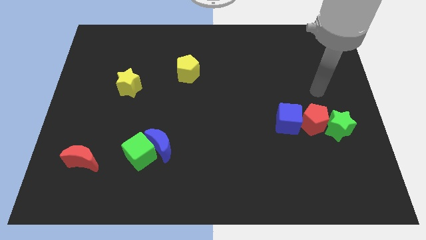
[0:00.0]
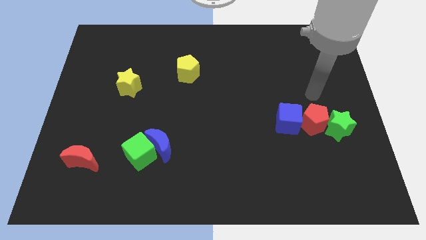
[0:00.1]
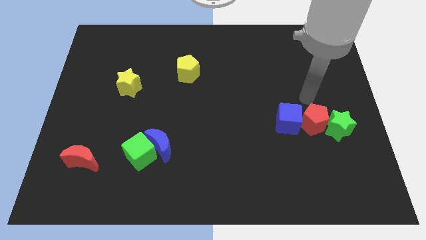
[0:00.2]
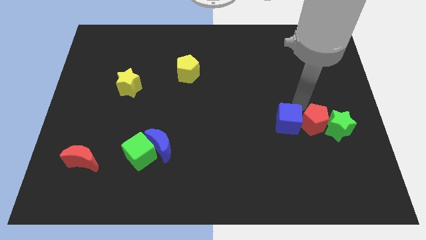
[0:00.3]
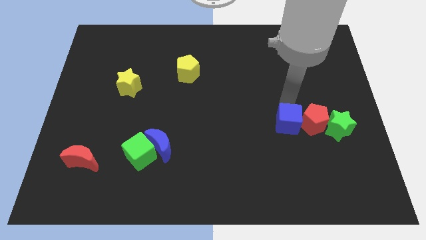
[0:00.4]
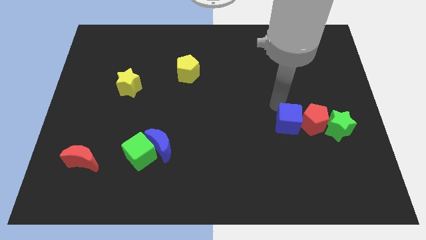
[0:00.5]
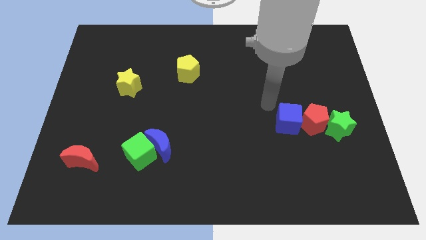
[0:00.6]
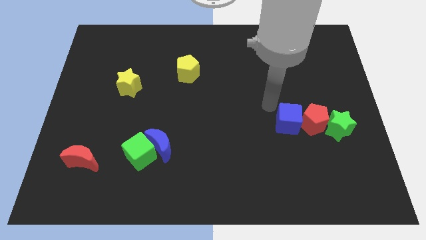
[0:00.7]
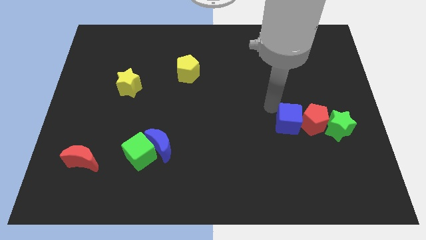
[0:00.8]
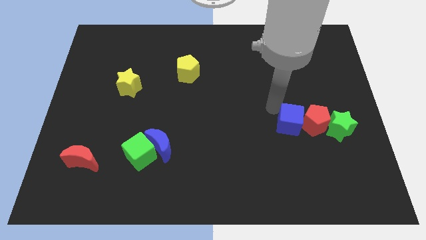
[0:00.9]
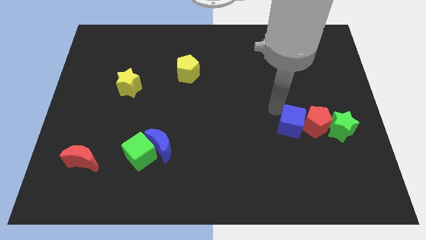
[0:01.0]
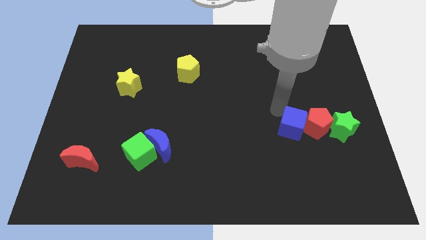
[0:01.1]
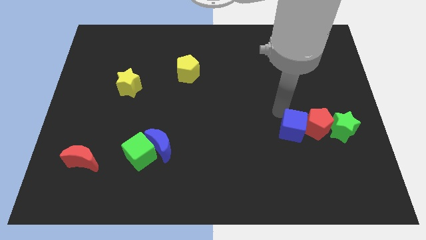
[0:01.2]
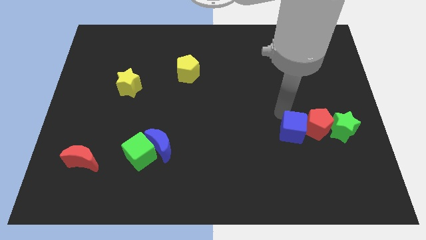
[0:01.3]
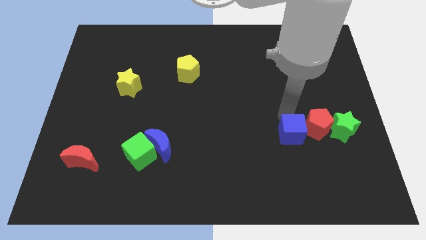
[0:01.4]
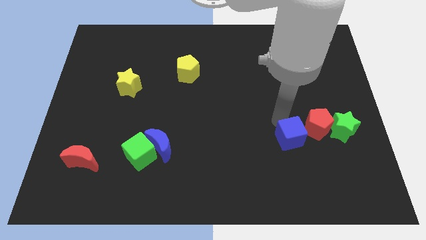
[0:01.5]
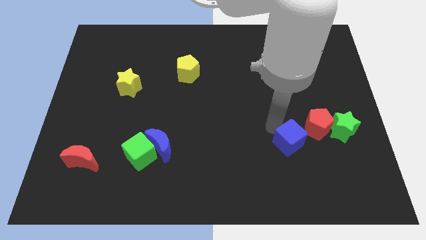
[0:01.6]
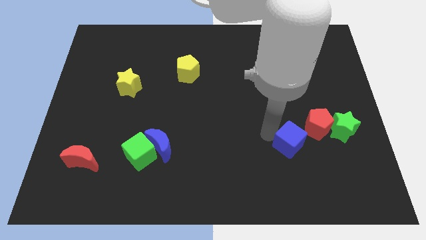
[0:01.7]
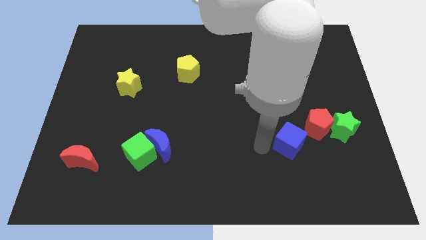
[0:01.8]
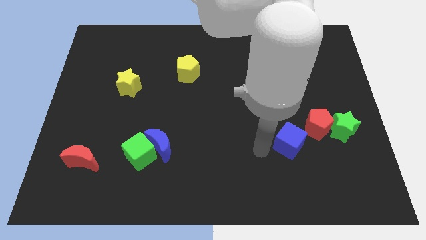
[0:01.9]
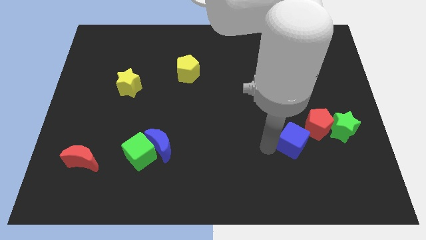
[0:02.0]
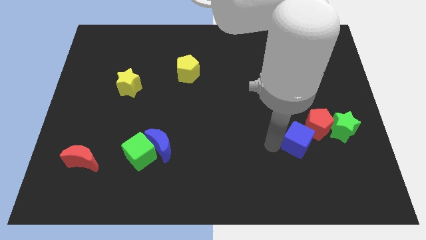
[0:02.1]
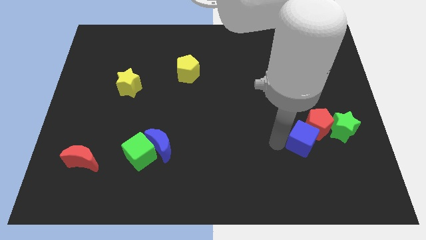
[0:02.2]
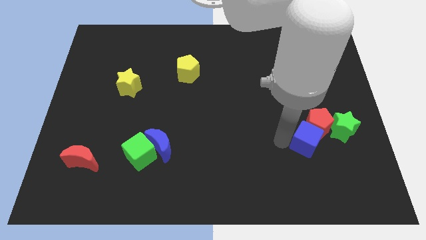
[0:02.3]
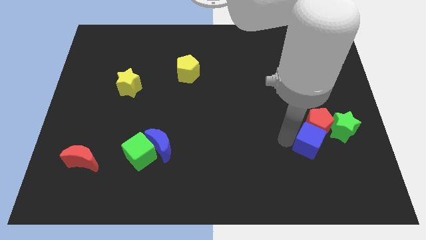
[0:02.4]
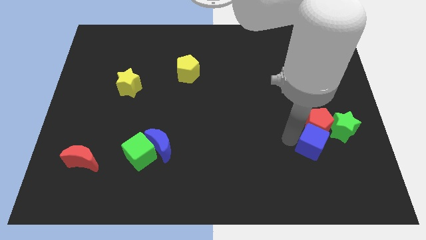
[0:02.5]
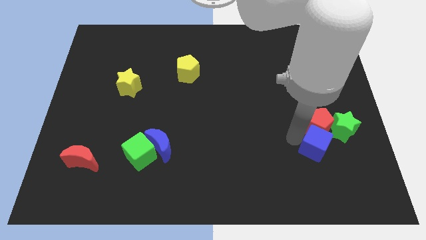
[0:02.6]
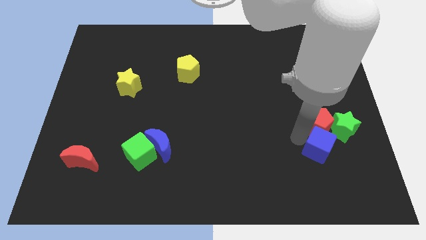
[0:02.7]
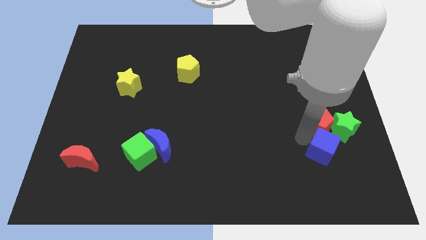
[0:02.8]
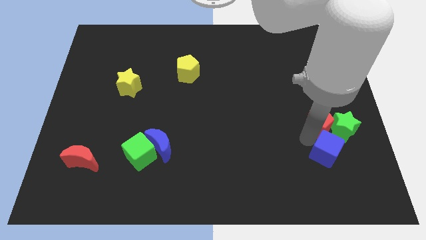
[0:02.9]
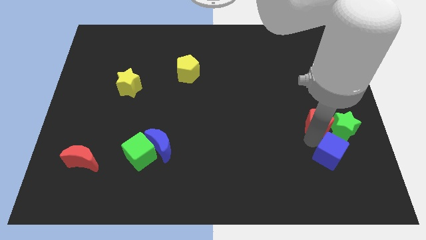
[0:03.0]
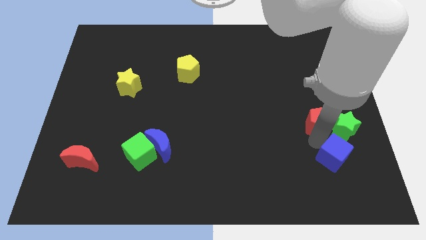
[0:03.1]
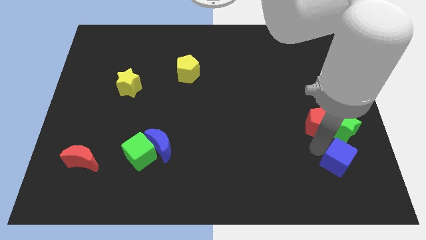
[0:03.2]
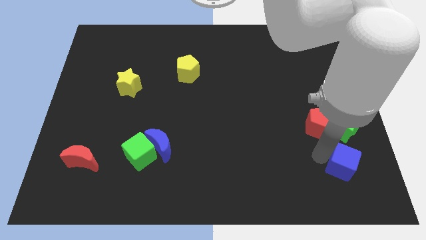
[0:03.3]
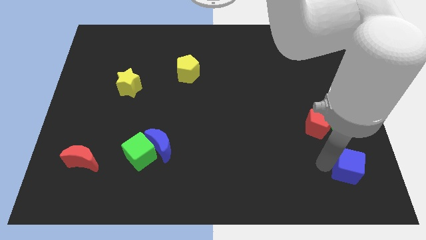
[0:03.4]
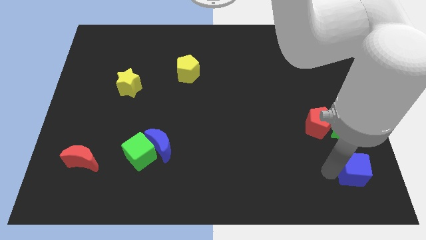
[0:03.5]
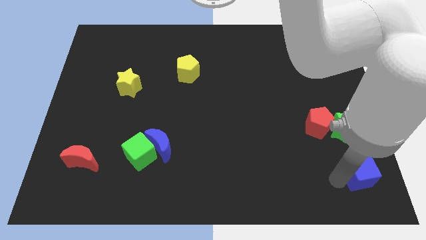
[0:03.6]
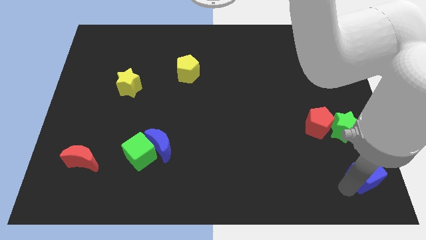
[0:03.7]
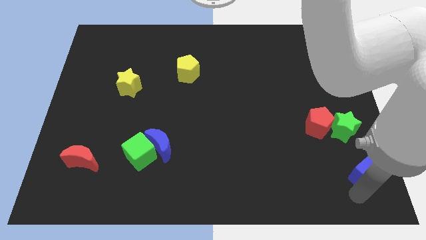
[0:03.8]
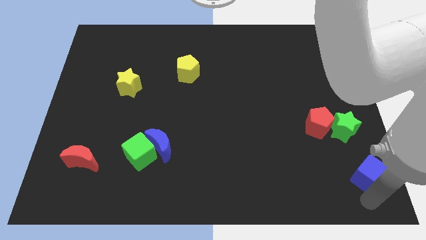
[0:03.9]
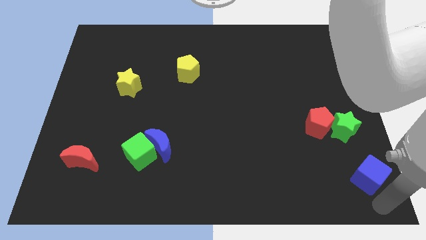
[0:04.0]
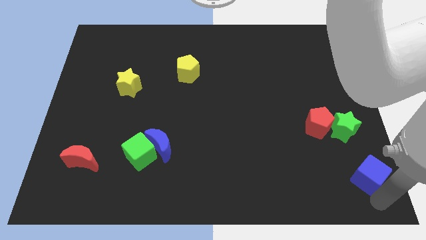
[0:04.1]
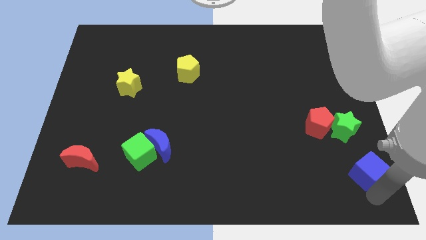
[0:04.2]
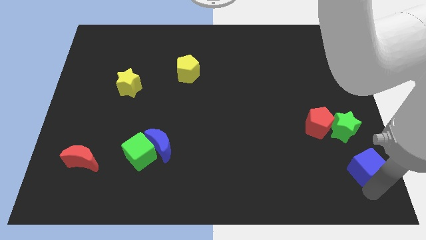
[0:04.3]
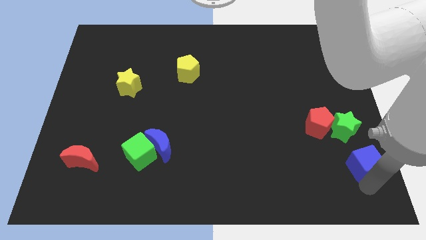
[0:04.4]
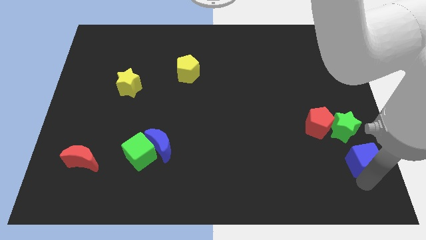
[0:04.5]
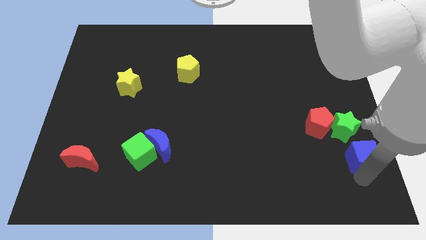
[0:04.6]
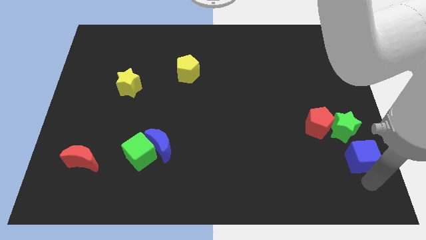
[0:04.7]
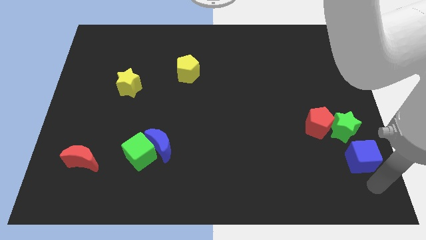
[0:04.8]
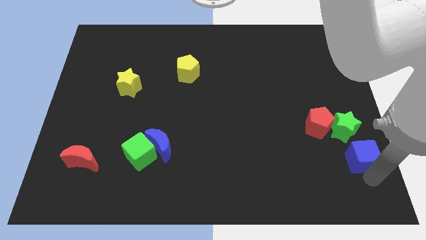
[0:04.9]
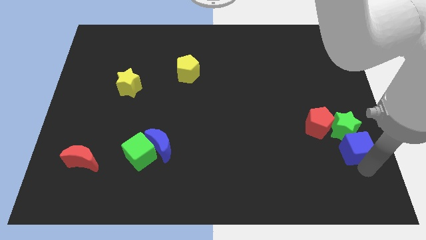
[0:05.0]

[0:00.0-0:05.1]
push the blue cube close to the green star

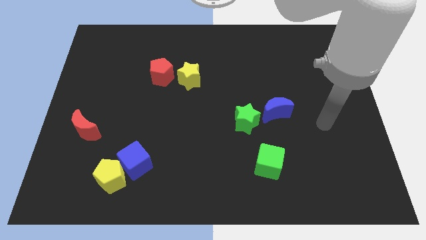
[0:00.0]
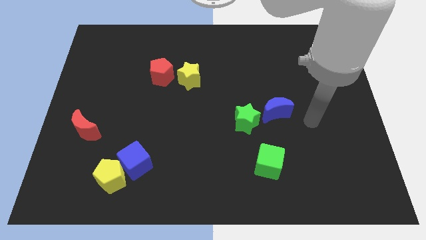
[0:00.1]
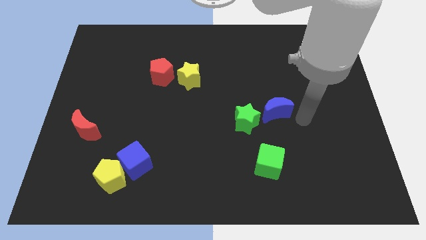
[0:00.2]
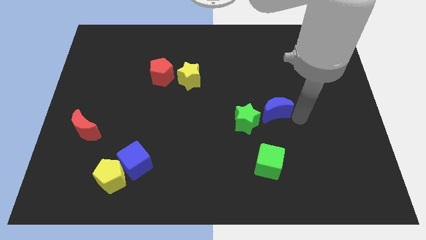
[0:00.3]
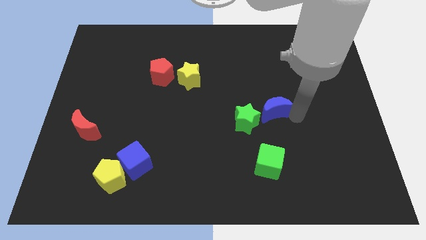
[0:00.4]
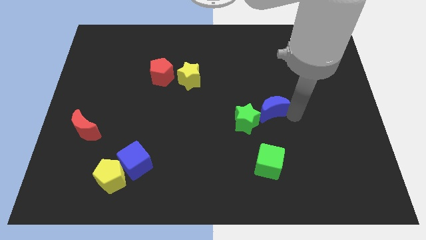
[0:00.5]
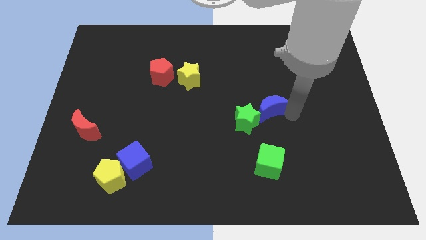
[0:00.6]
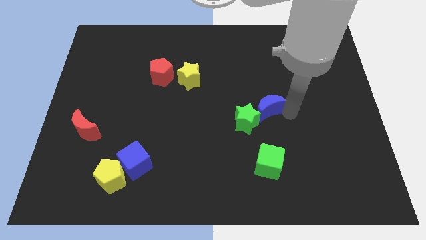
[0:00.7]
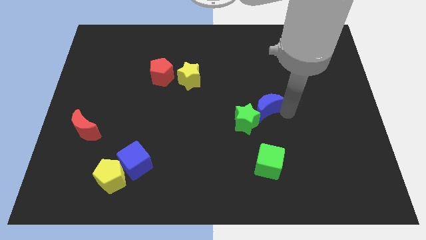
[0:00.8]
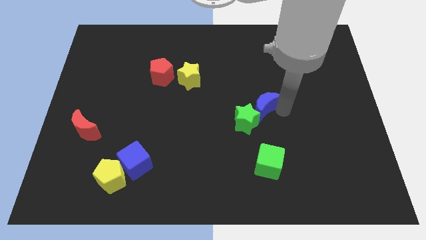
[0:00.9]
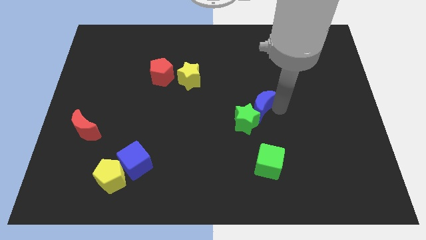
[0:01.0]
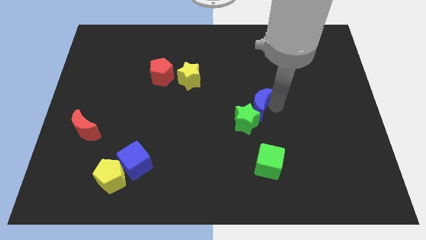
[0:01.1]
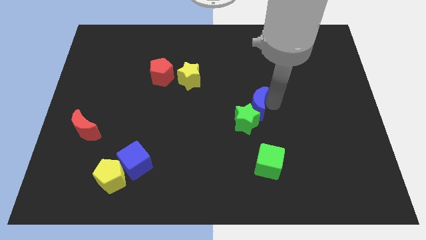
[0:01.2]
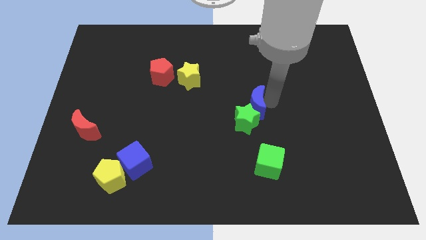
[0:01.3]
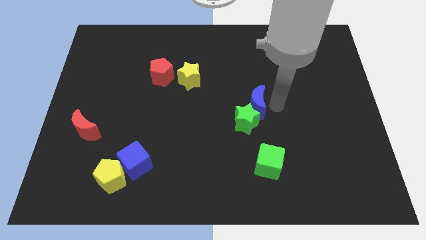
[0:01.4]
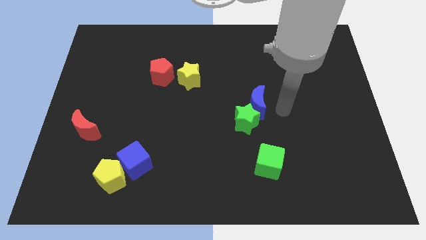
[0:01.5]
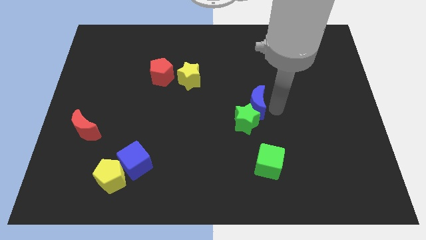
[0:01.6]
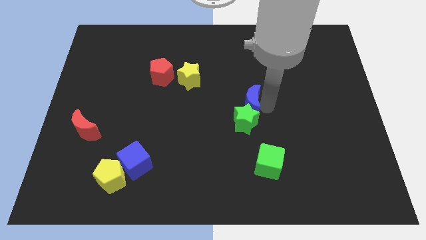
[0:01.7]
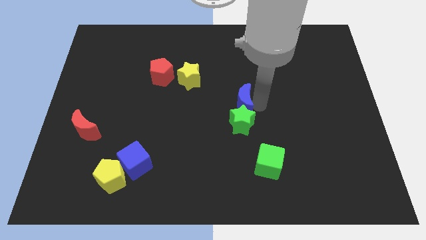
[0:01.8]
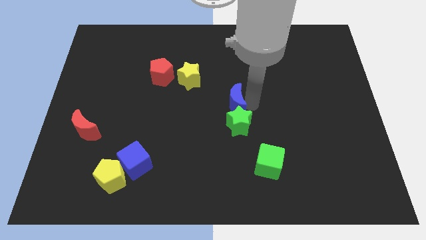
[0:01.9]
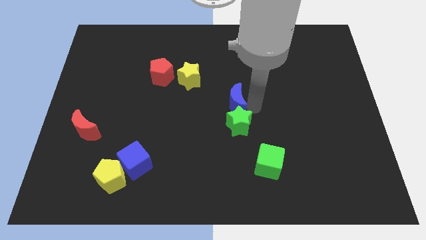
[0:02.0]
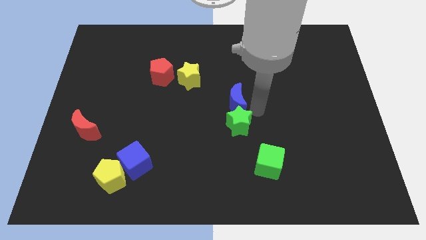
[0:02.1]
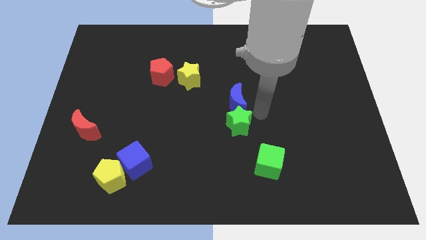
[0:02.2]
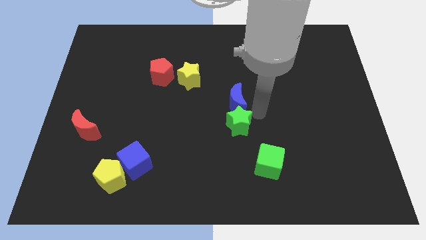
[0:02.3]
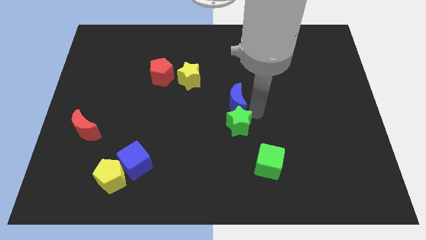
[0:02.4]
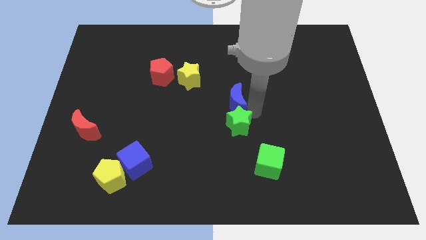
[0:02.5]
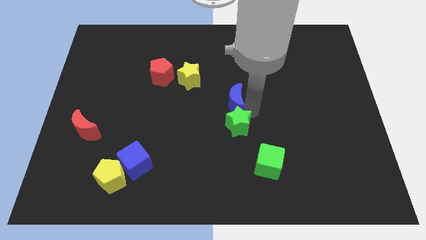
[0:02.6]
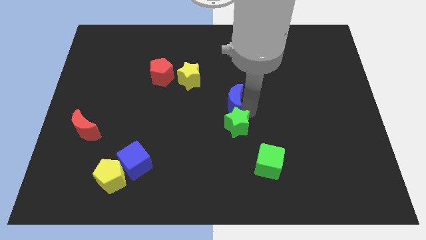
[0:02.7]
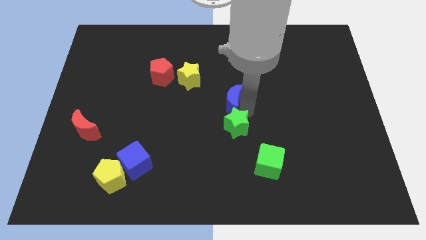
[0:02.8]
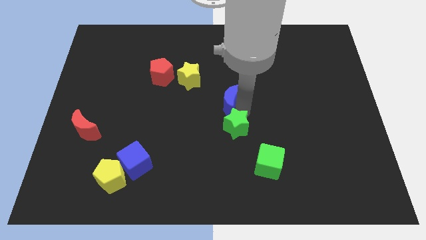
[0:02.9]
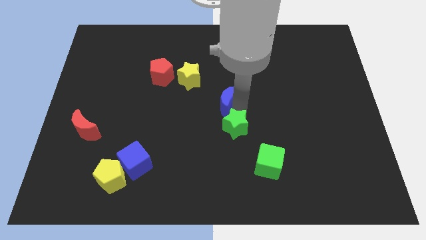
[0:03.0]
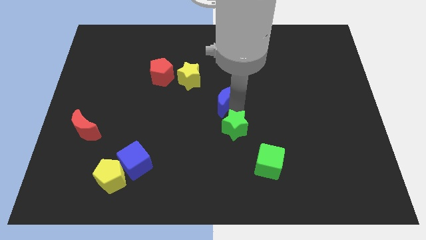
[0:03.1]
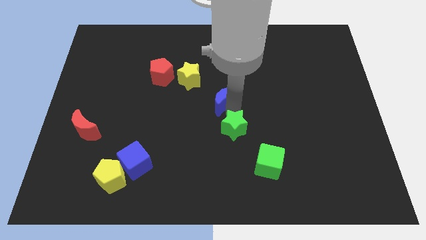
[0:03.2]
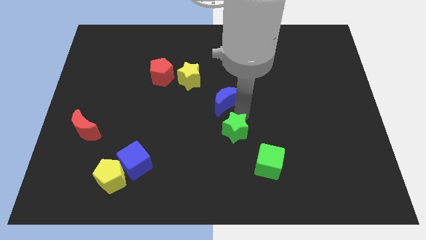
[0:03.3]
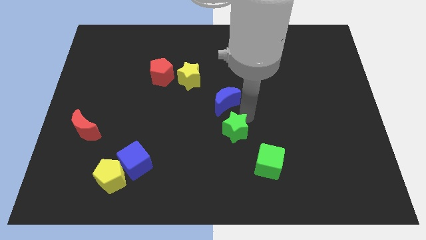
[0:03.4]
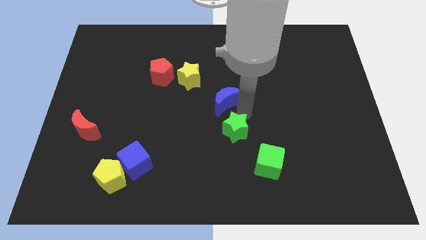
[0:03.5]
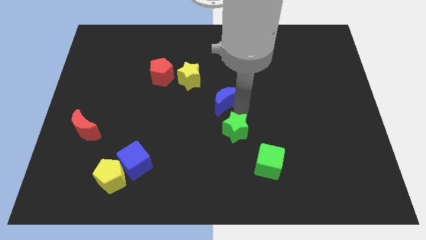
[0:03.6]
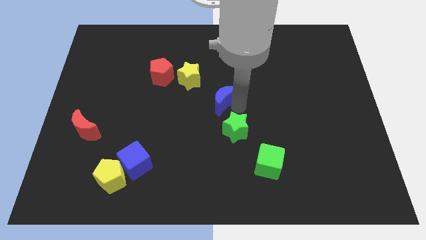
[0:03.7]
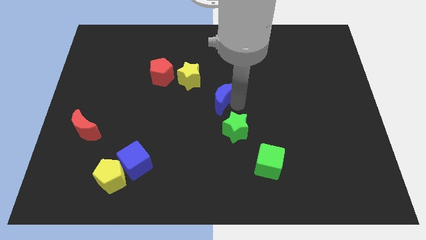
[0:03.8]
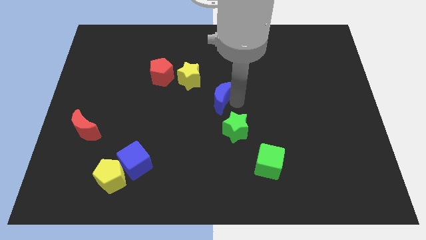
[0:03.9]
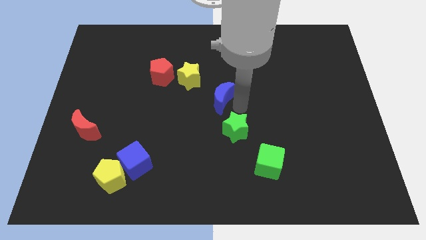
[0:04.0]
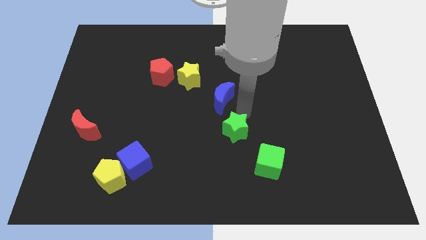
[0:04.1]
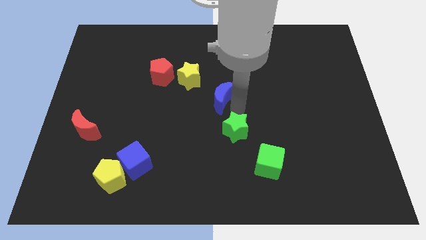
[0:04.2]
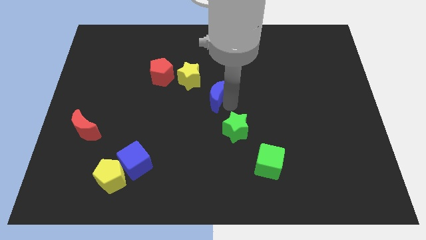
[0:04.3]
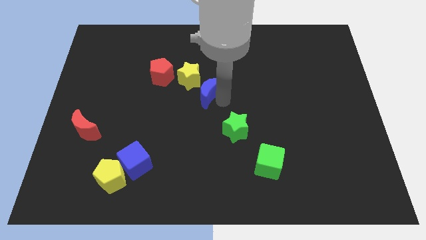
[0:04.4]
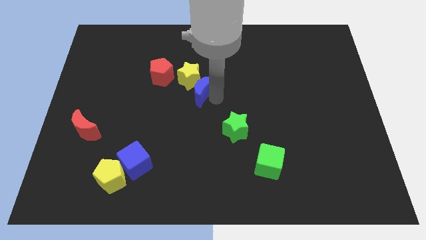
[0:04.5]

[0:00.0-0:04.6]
move the blue moon towards the yellow star
